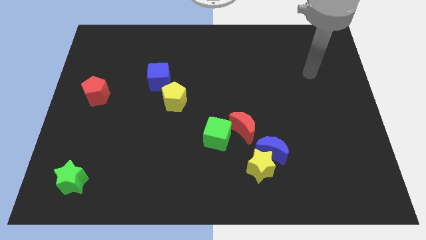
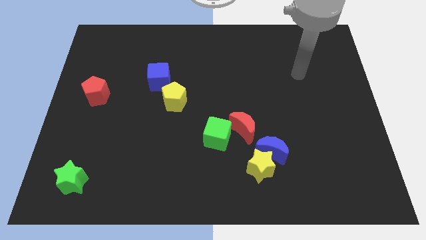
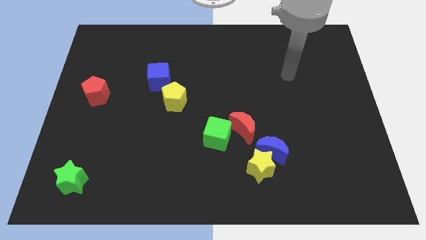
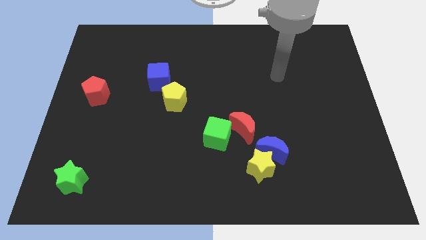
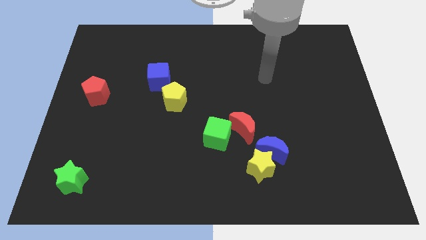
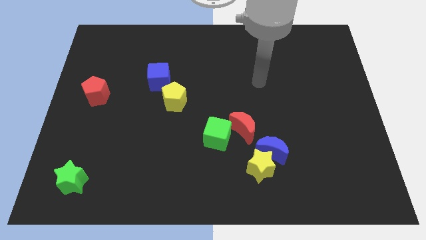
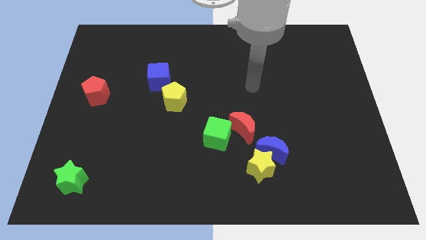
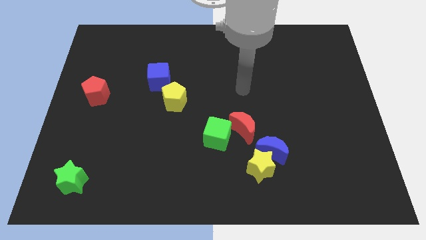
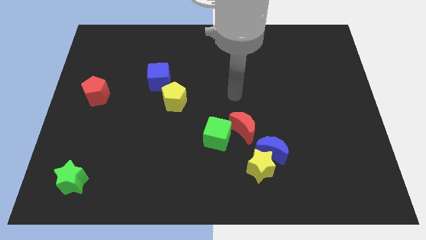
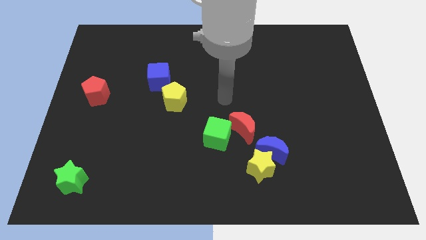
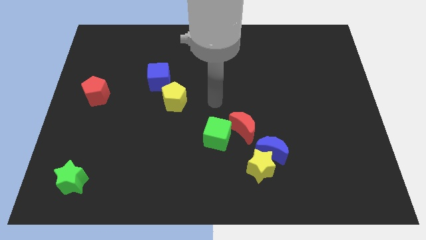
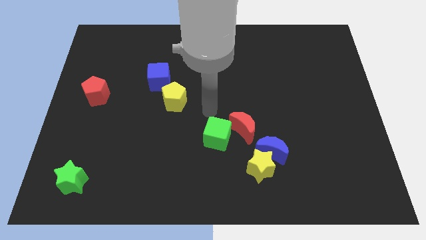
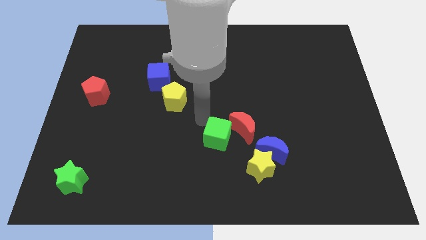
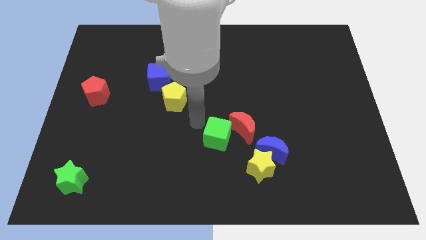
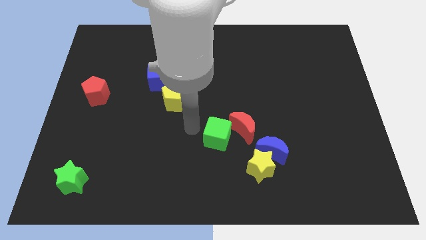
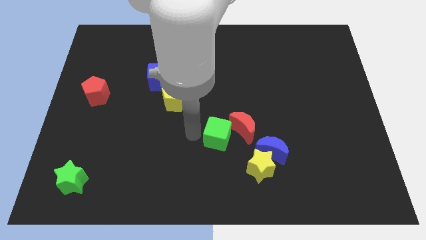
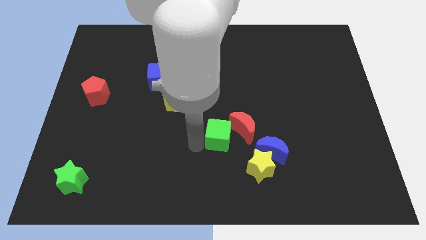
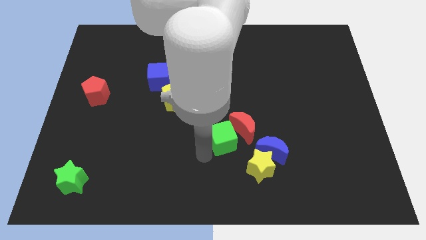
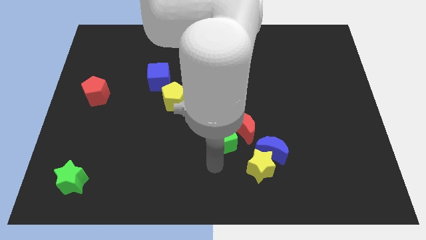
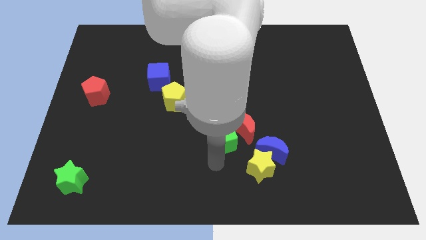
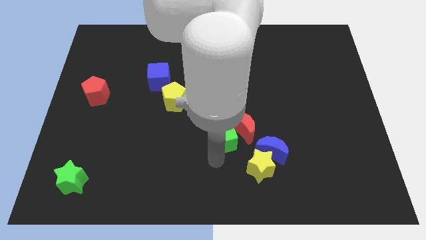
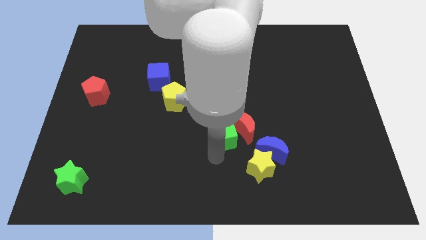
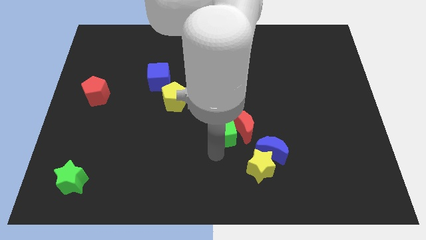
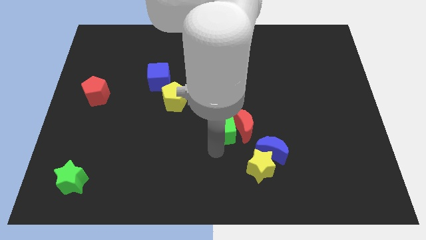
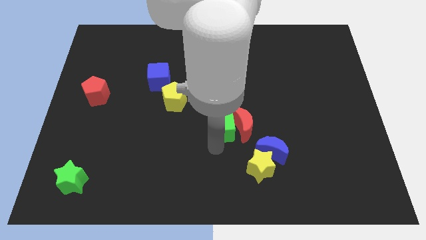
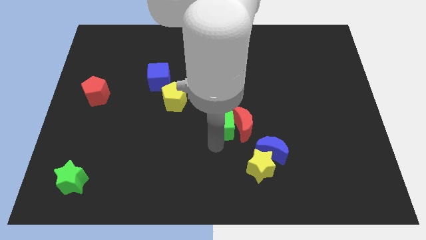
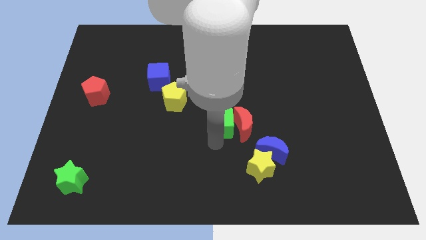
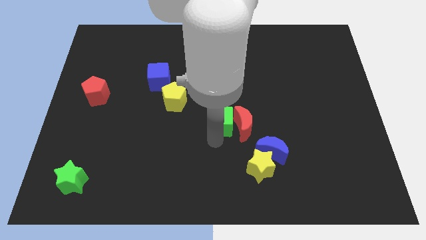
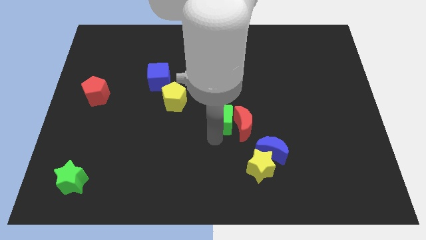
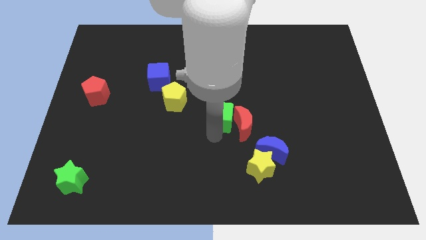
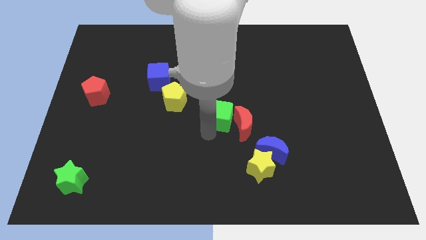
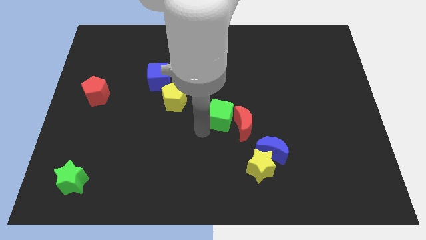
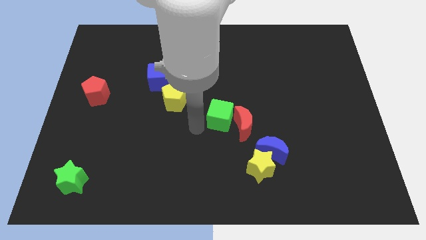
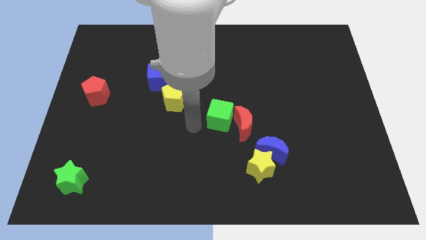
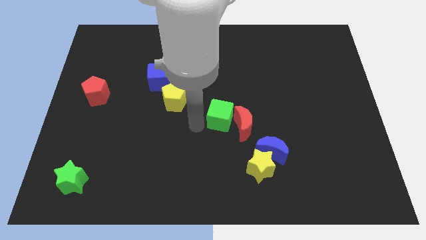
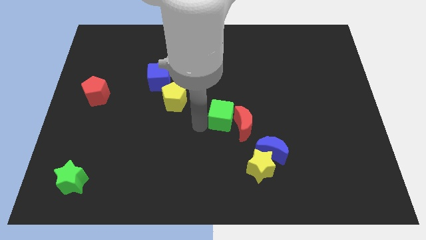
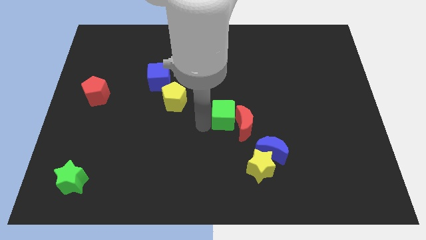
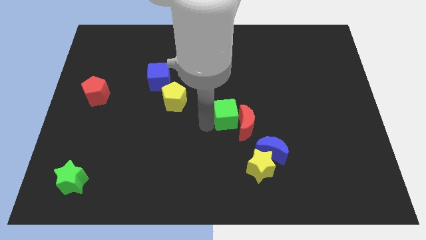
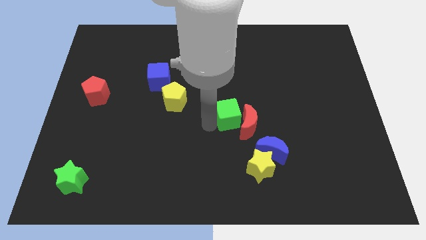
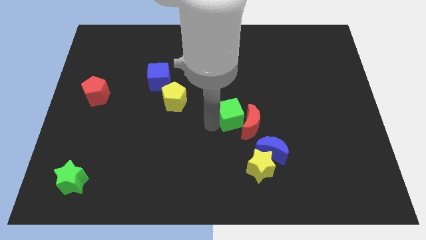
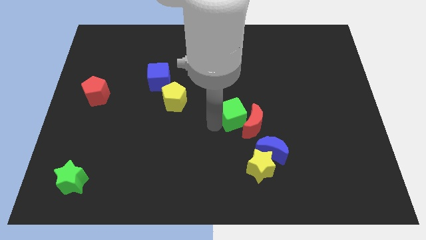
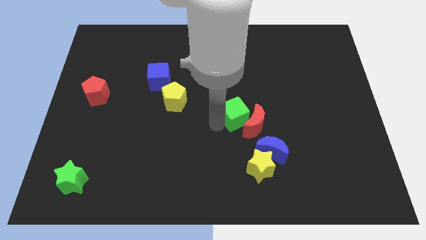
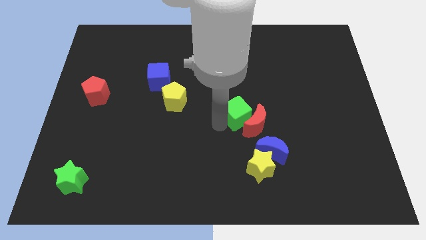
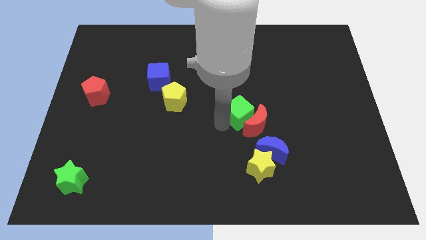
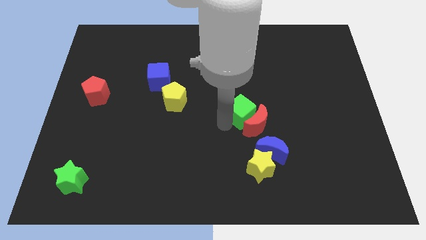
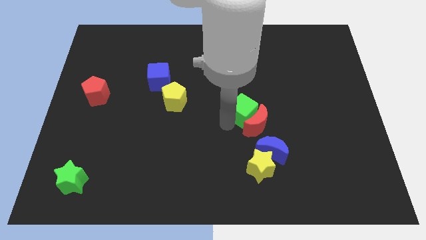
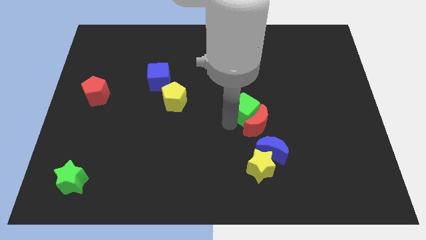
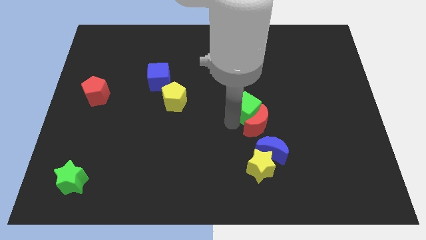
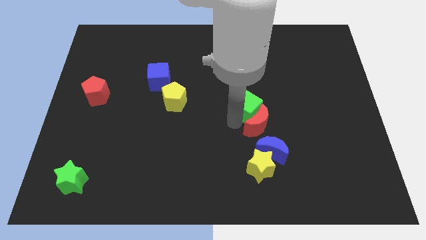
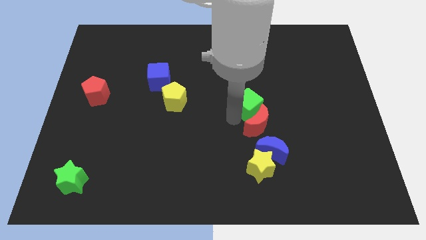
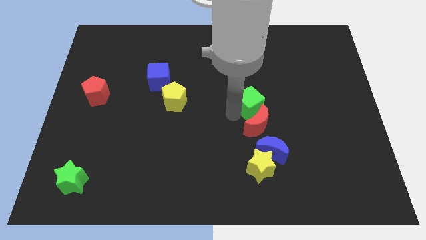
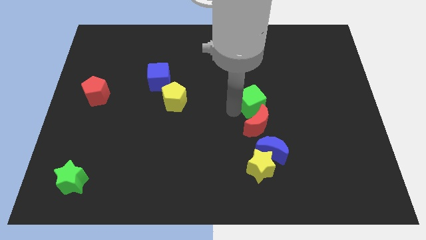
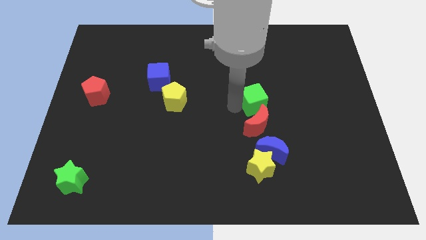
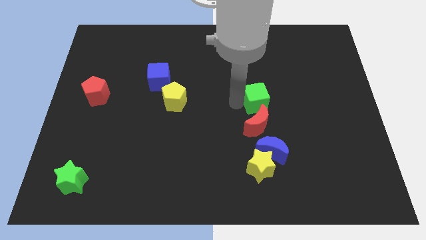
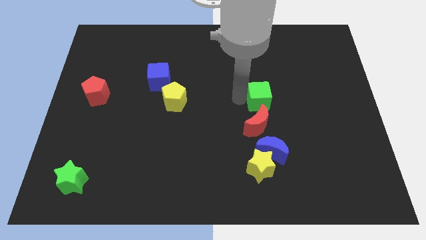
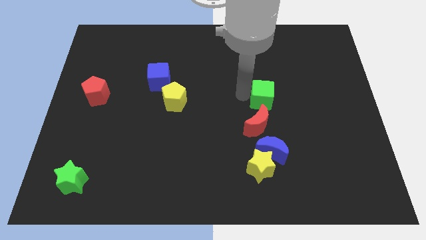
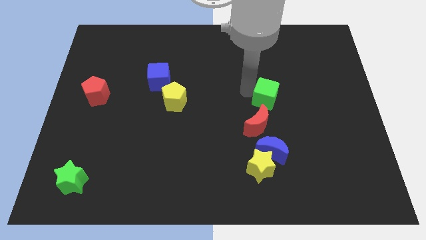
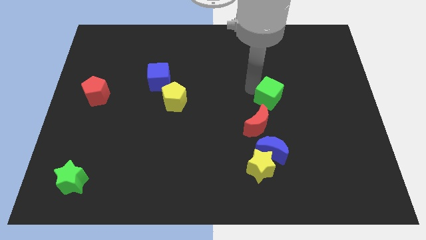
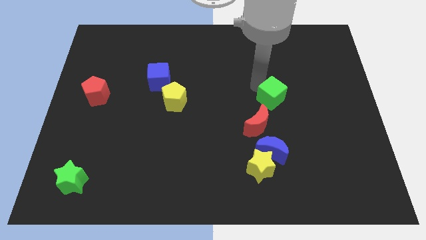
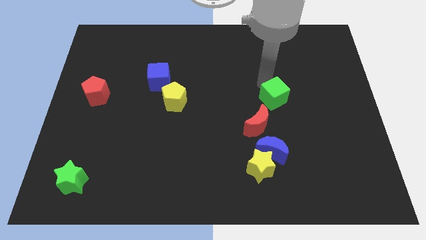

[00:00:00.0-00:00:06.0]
slide the green cube a little bit right

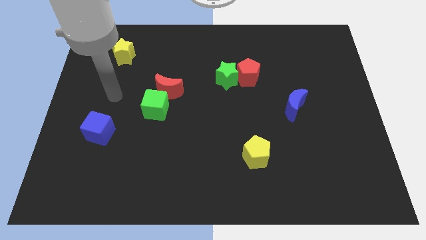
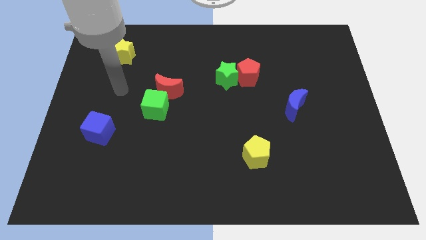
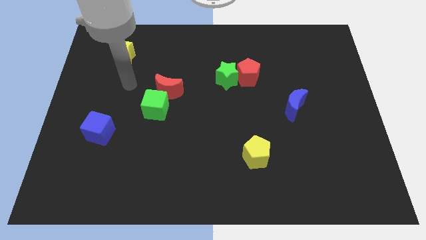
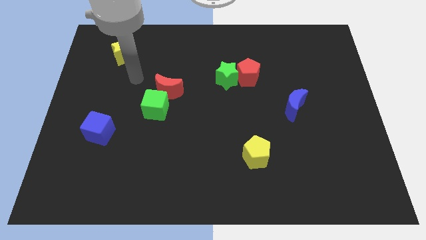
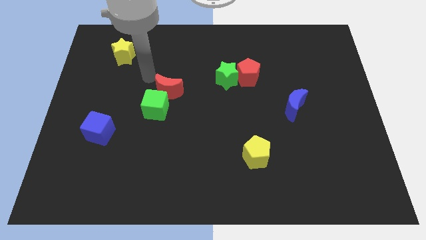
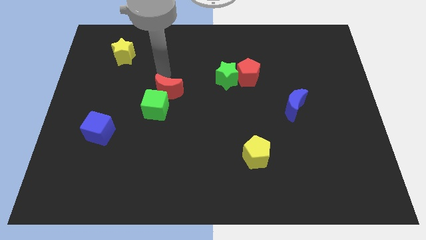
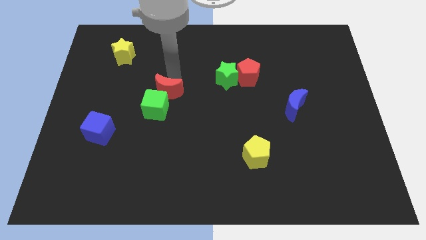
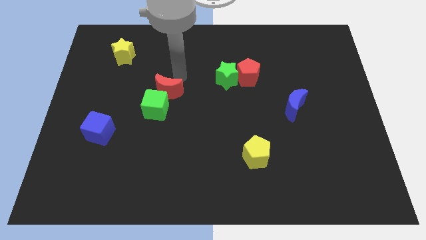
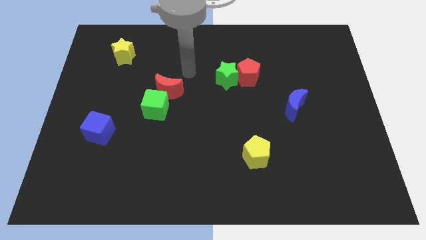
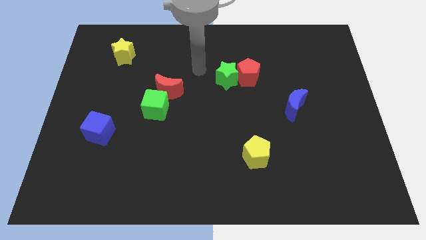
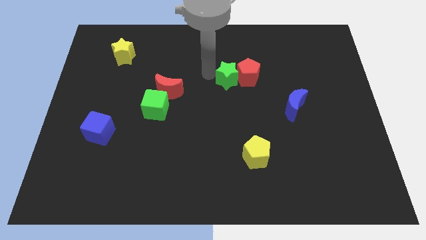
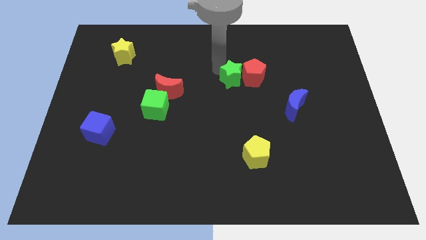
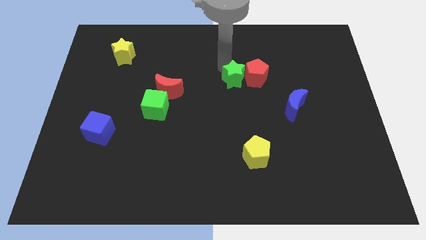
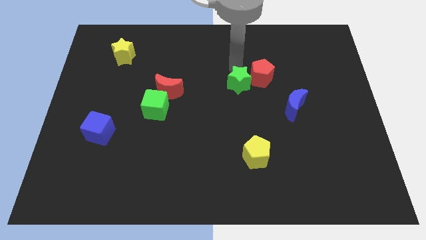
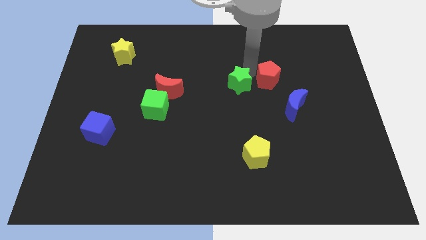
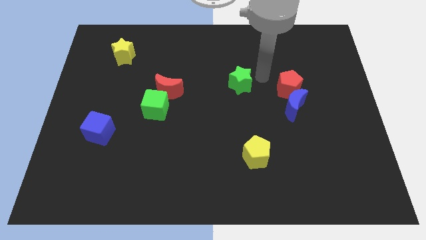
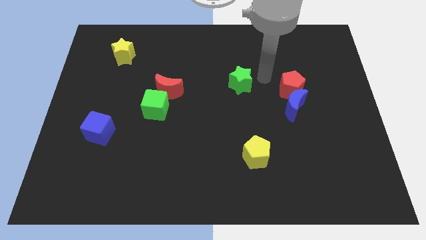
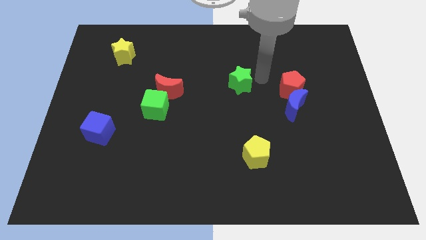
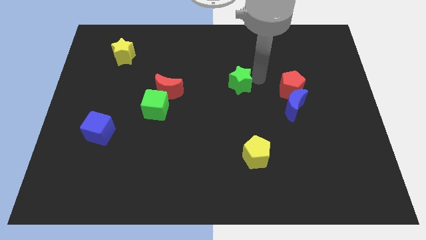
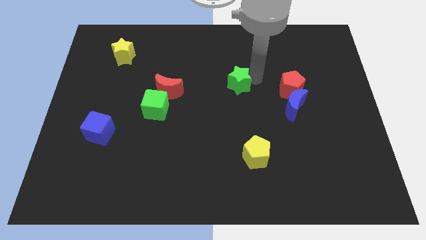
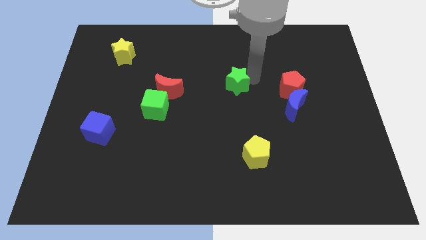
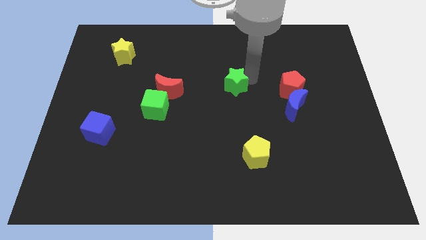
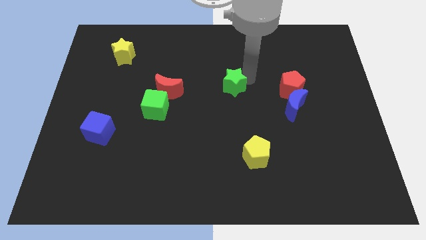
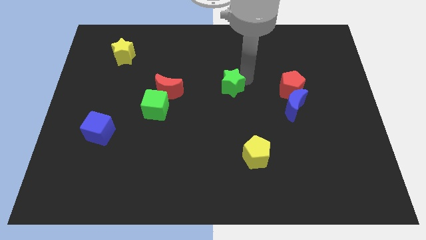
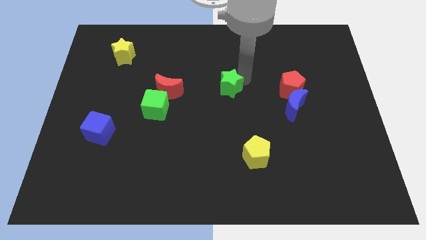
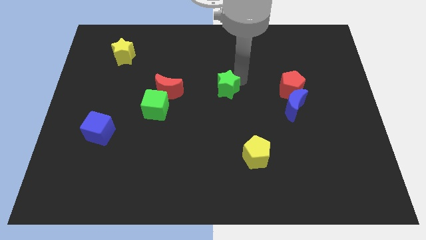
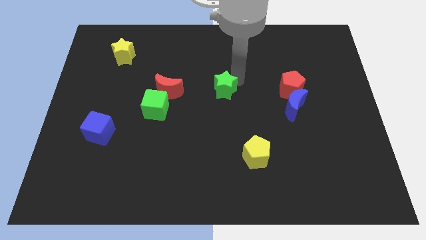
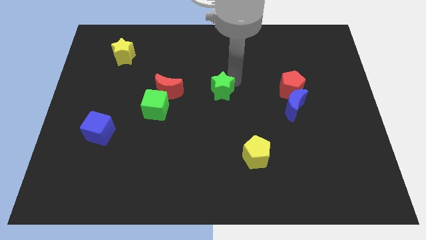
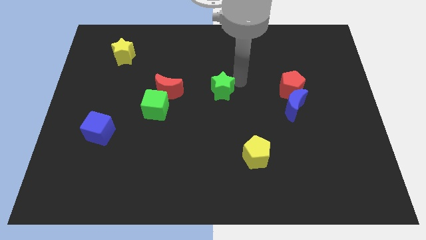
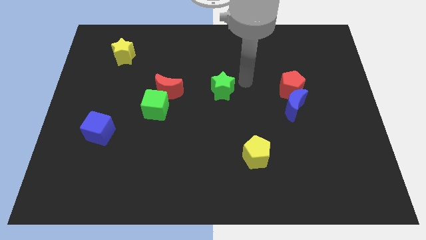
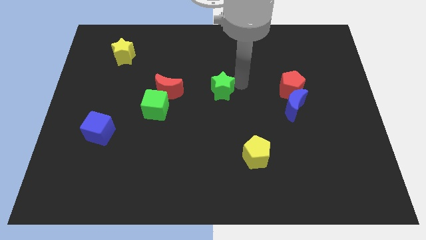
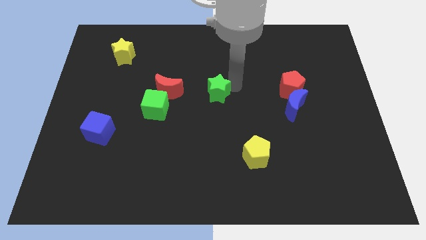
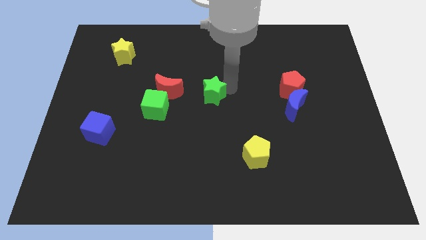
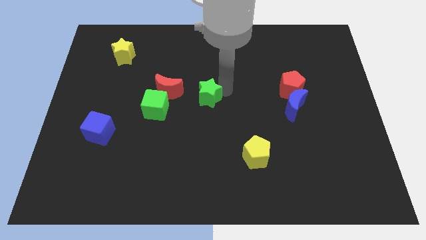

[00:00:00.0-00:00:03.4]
slide the green star slightly down and left diagonally
